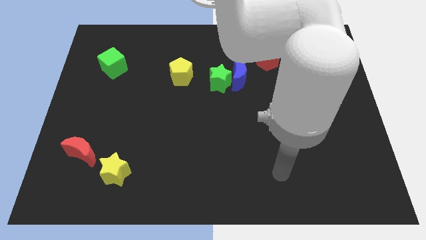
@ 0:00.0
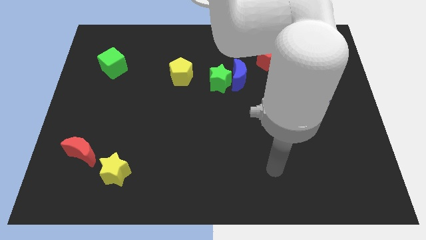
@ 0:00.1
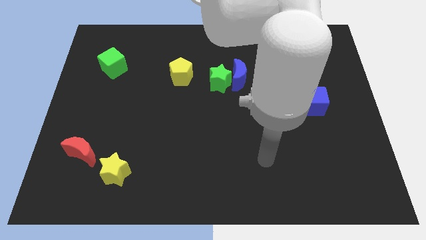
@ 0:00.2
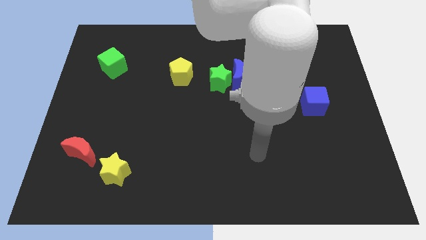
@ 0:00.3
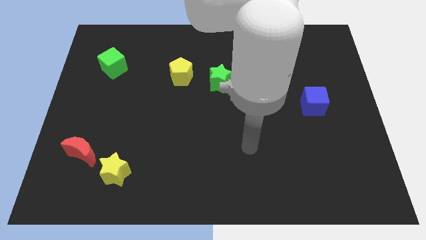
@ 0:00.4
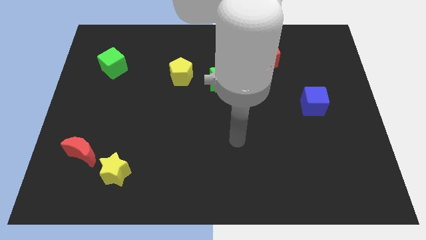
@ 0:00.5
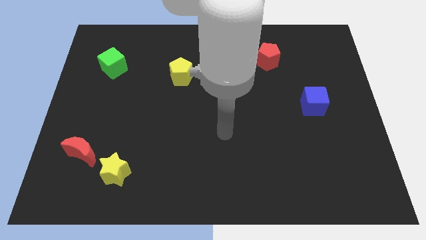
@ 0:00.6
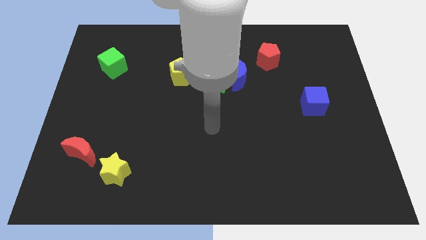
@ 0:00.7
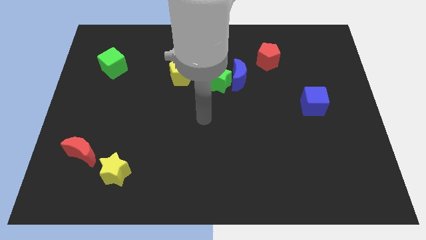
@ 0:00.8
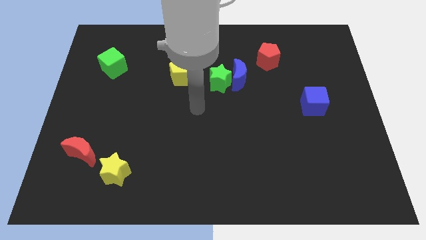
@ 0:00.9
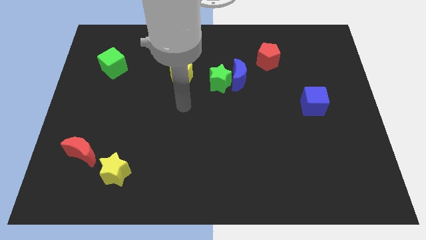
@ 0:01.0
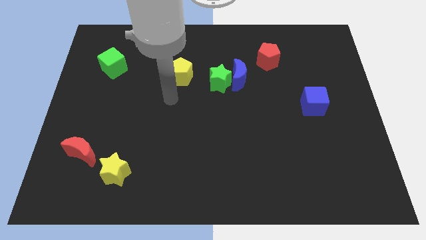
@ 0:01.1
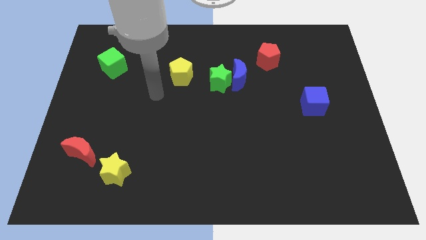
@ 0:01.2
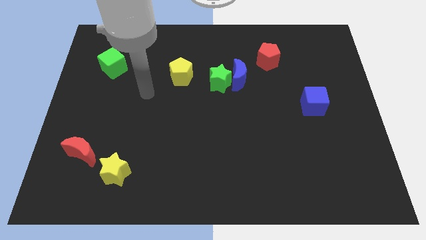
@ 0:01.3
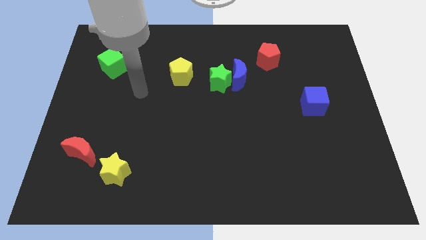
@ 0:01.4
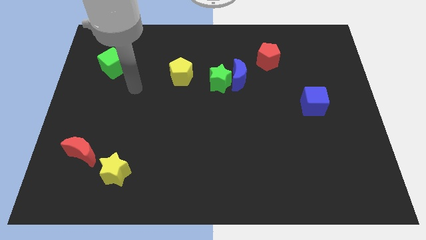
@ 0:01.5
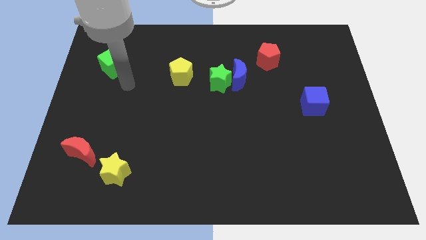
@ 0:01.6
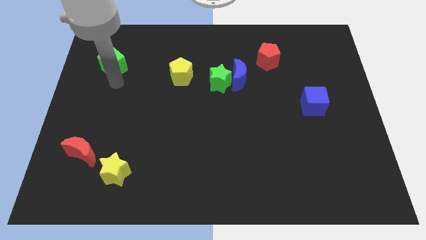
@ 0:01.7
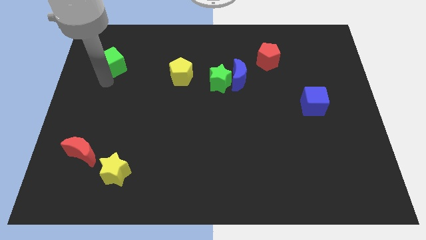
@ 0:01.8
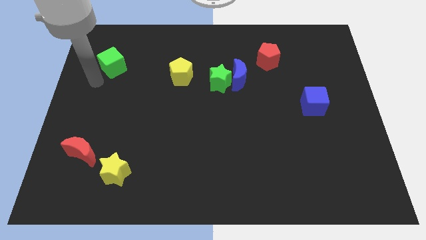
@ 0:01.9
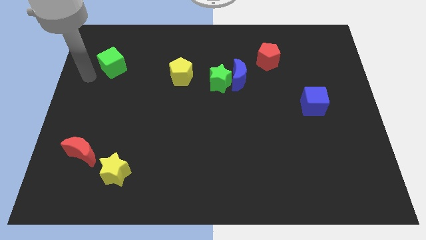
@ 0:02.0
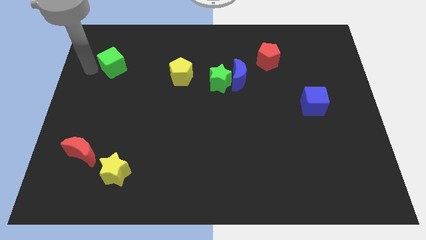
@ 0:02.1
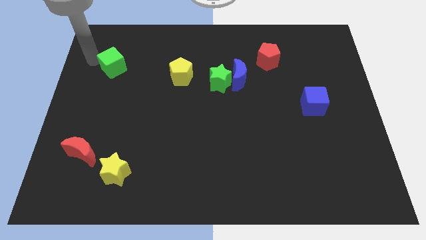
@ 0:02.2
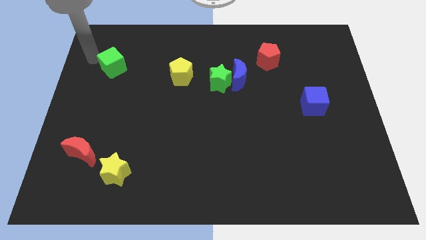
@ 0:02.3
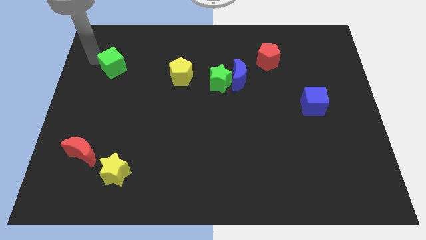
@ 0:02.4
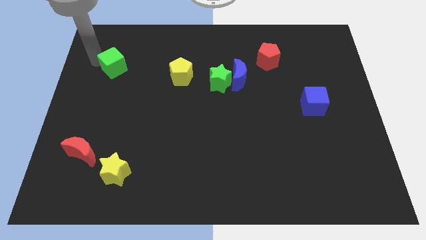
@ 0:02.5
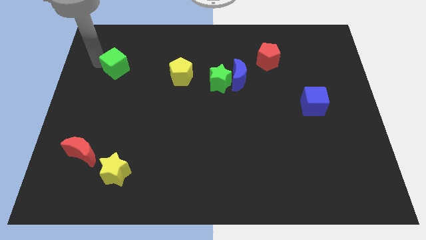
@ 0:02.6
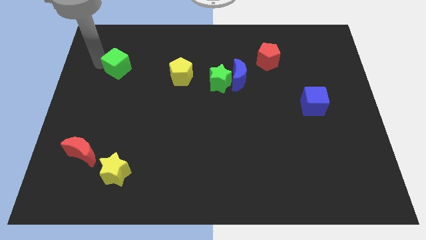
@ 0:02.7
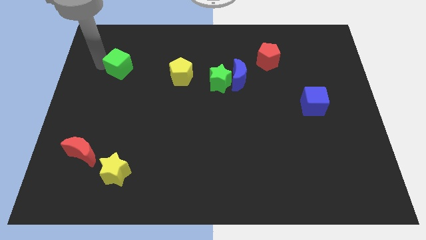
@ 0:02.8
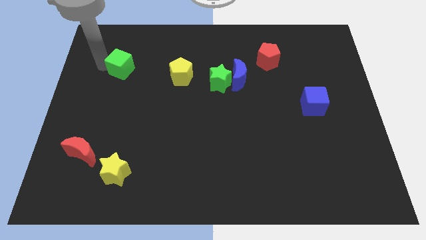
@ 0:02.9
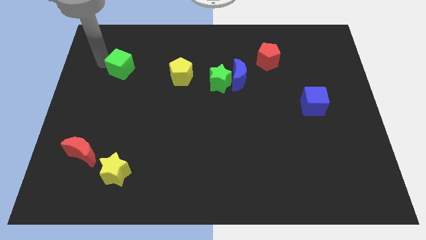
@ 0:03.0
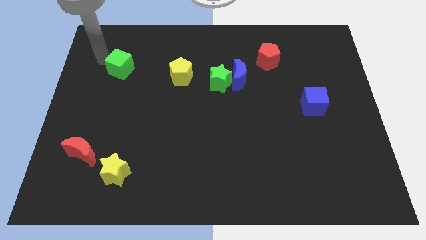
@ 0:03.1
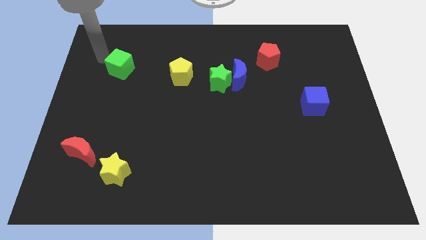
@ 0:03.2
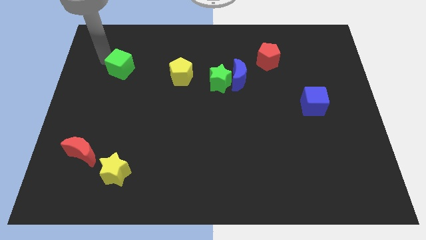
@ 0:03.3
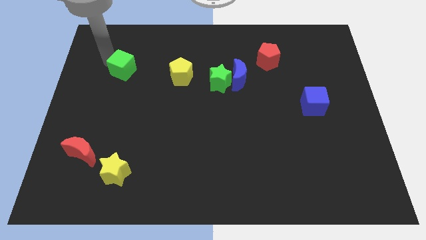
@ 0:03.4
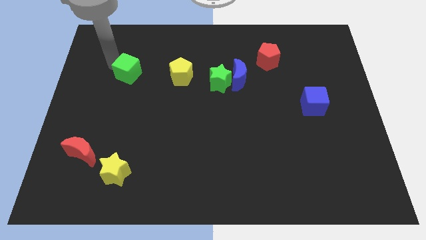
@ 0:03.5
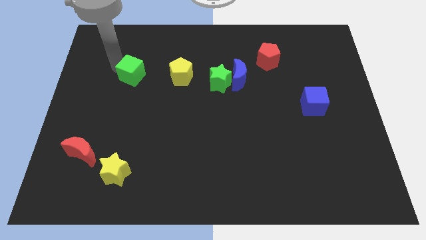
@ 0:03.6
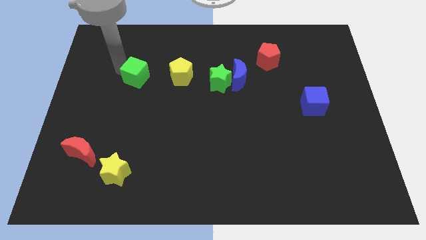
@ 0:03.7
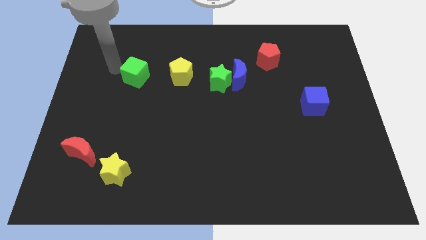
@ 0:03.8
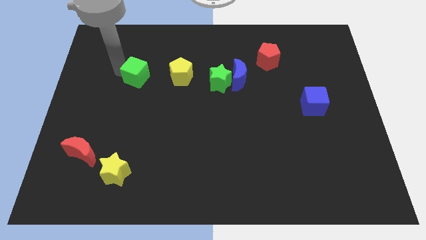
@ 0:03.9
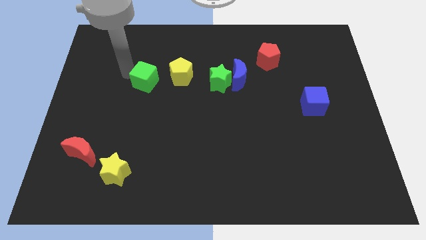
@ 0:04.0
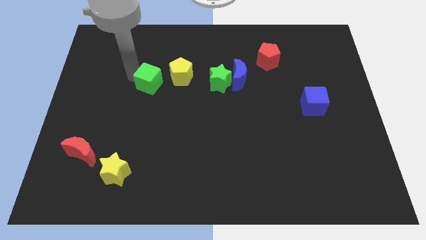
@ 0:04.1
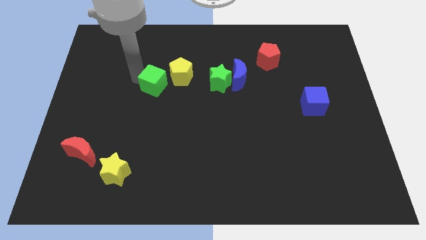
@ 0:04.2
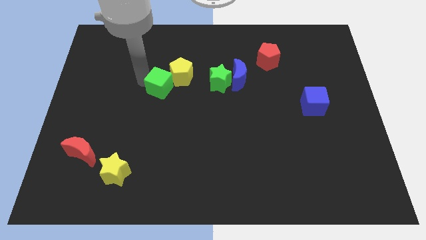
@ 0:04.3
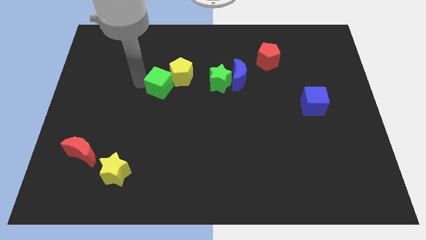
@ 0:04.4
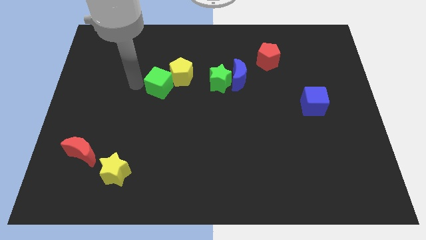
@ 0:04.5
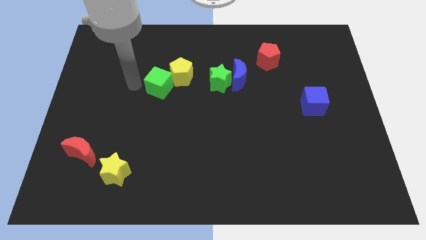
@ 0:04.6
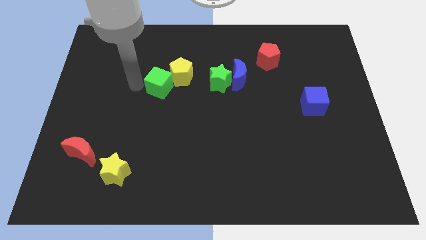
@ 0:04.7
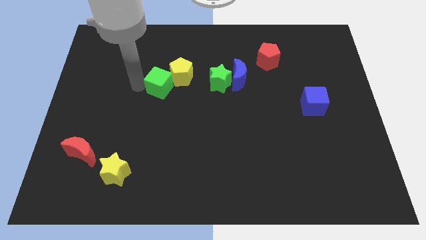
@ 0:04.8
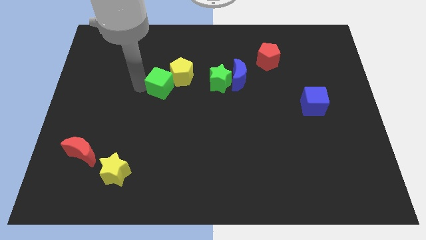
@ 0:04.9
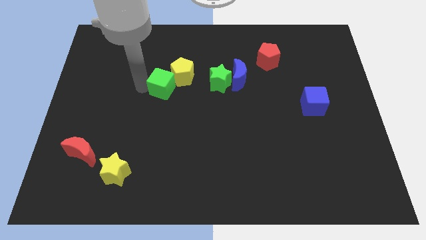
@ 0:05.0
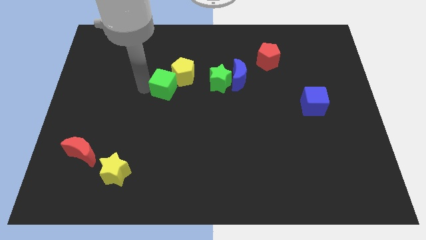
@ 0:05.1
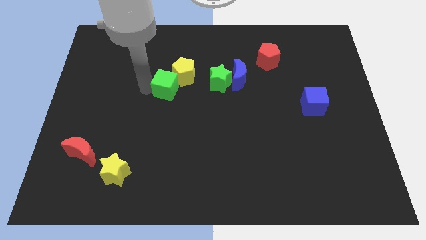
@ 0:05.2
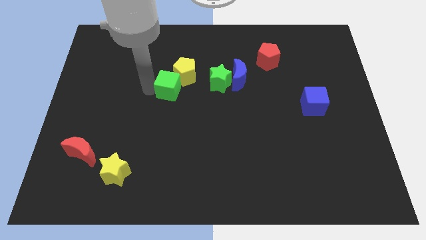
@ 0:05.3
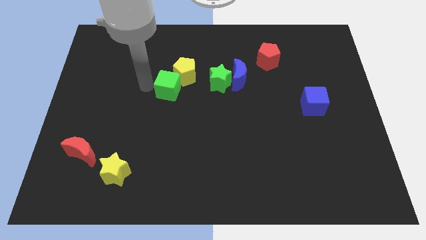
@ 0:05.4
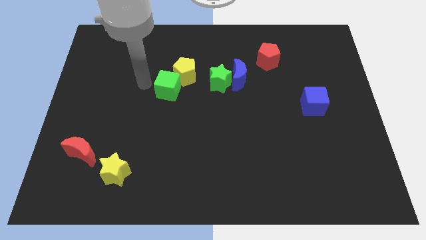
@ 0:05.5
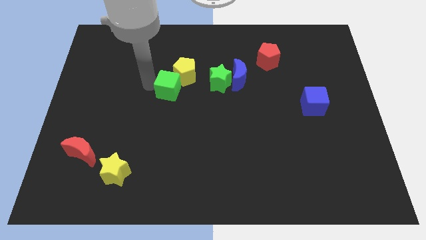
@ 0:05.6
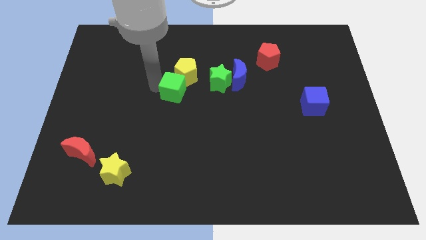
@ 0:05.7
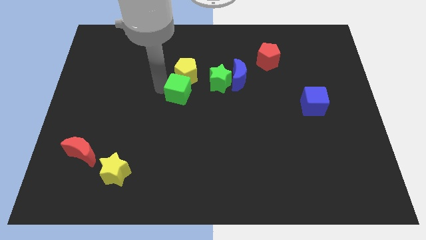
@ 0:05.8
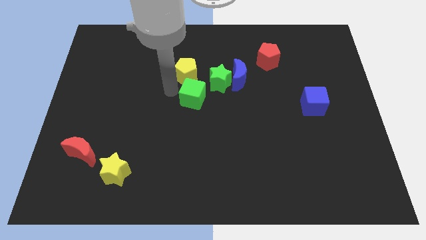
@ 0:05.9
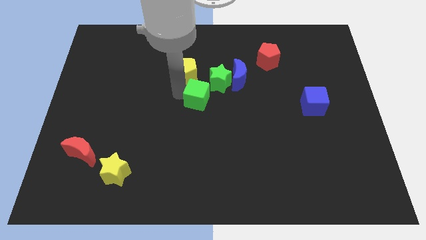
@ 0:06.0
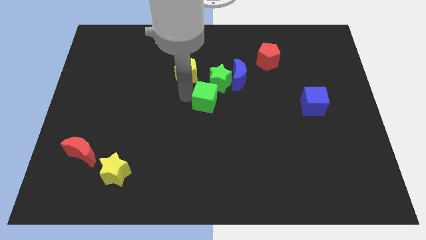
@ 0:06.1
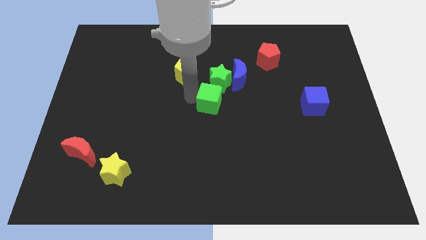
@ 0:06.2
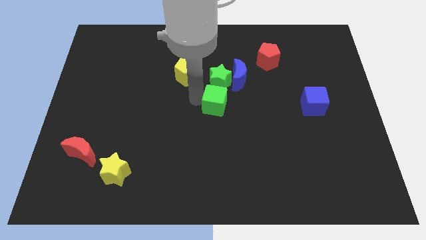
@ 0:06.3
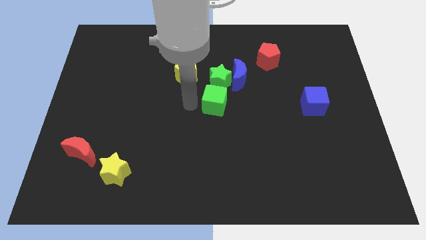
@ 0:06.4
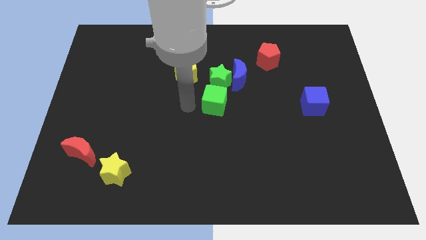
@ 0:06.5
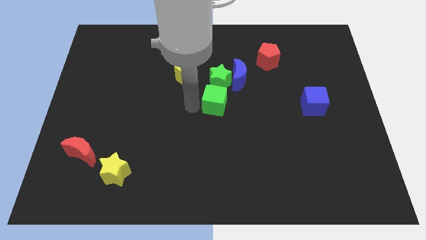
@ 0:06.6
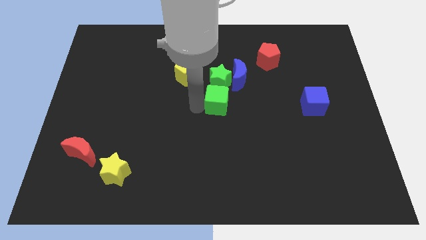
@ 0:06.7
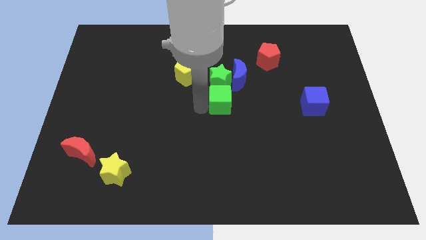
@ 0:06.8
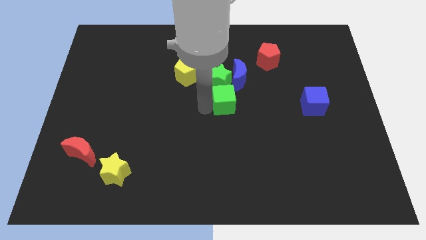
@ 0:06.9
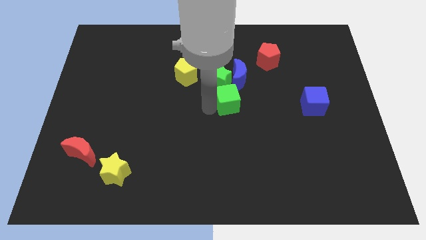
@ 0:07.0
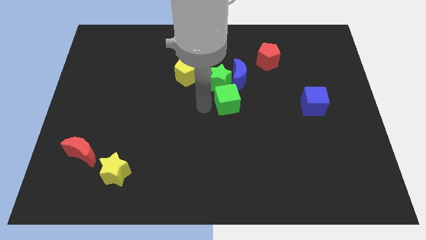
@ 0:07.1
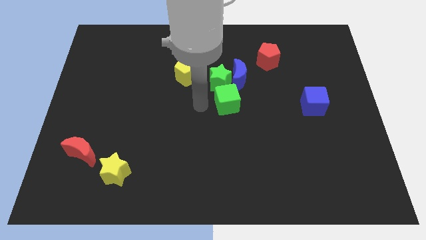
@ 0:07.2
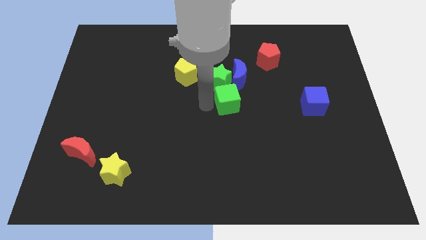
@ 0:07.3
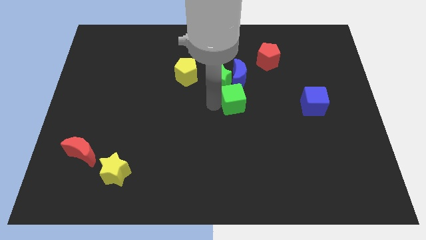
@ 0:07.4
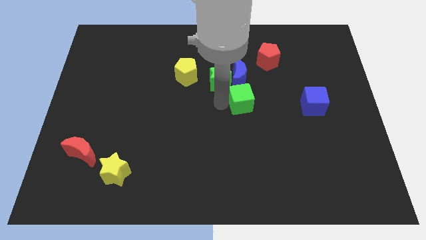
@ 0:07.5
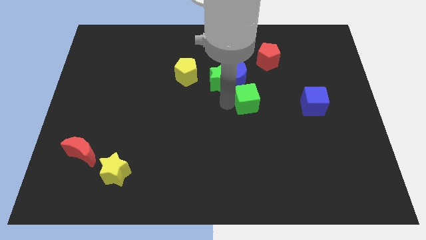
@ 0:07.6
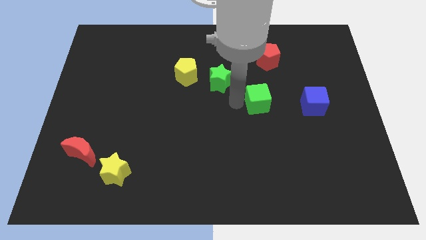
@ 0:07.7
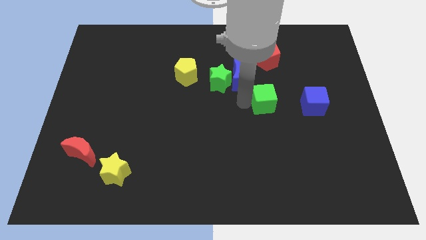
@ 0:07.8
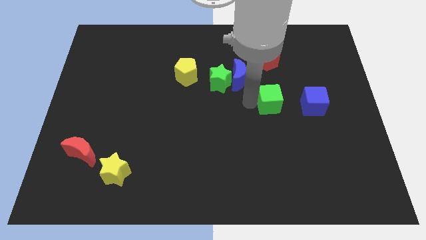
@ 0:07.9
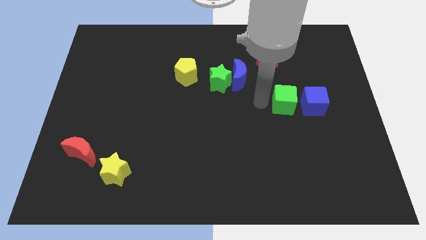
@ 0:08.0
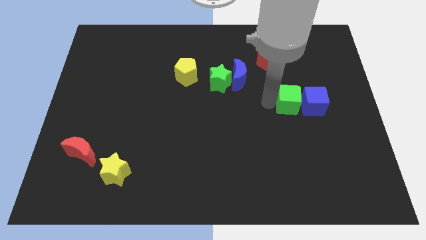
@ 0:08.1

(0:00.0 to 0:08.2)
slide the green cube next to the blue cube
